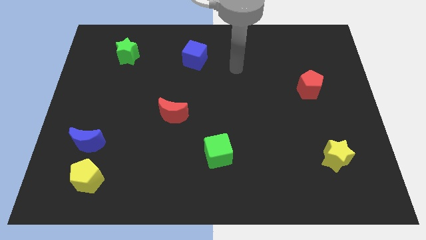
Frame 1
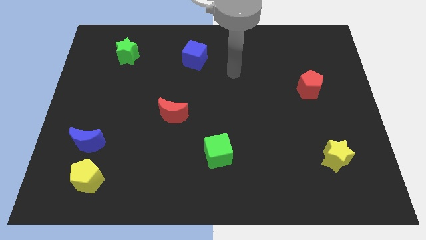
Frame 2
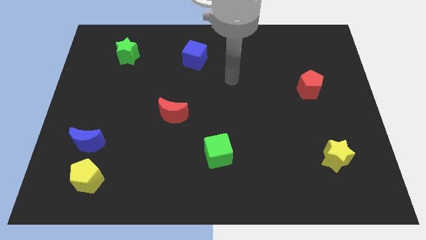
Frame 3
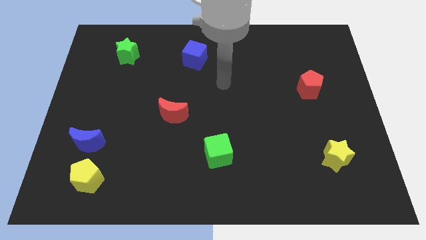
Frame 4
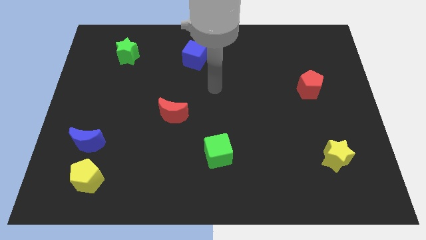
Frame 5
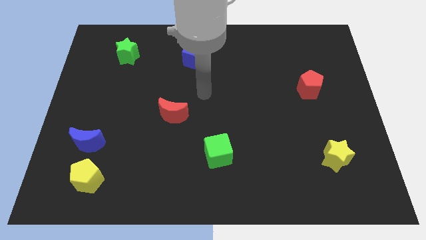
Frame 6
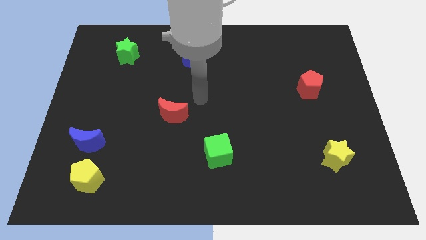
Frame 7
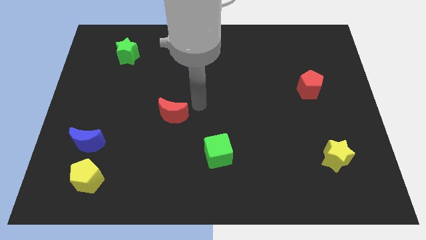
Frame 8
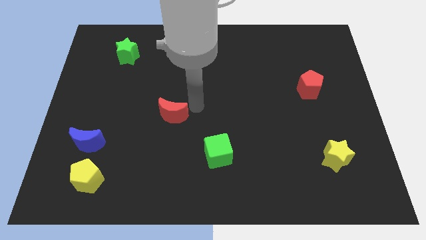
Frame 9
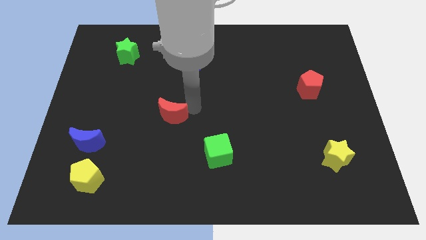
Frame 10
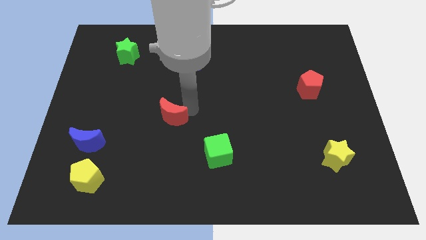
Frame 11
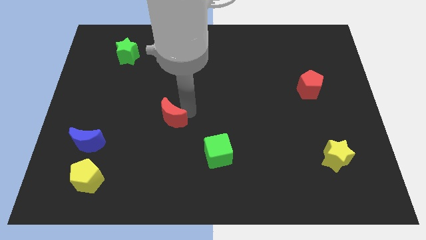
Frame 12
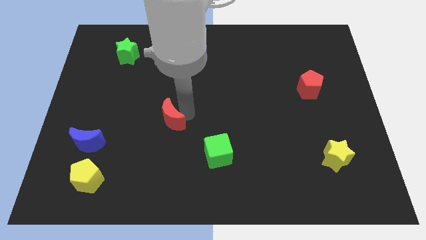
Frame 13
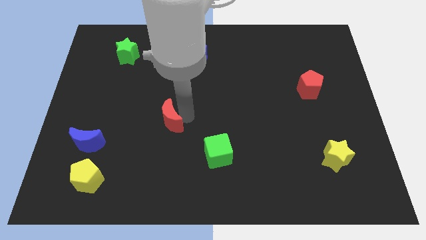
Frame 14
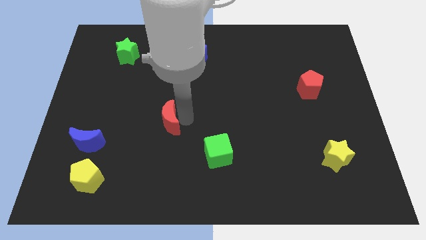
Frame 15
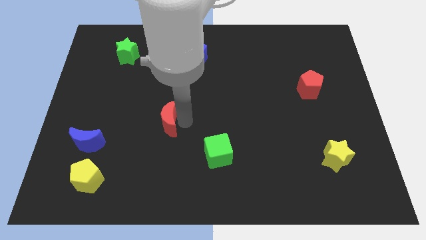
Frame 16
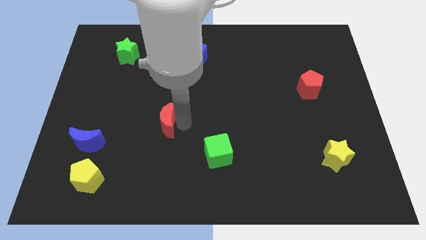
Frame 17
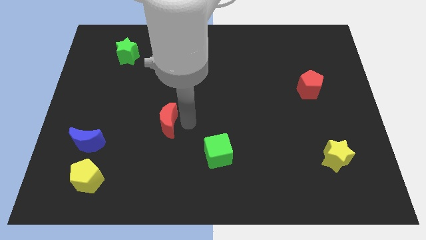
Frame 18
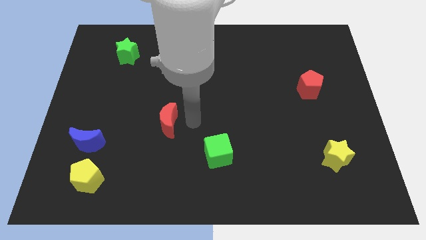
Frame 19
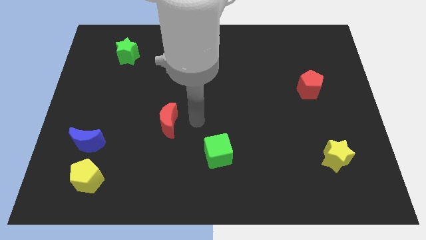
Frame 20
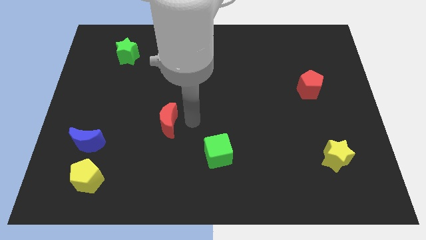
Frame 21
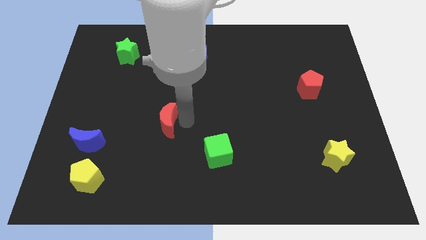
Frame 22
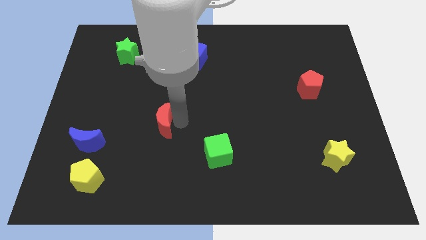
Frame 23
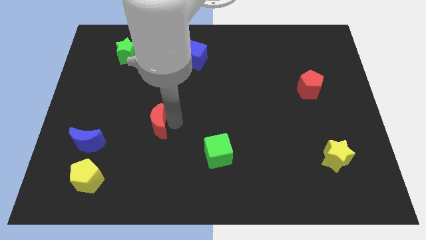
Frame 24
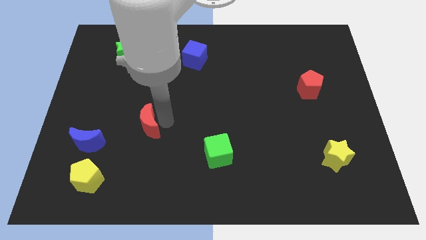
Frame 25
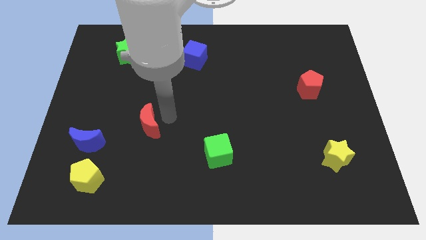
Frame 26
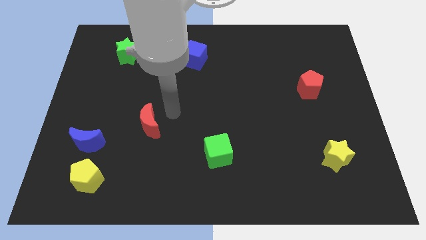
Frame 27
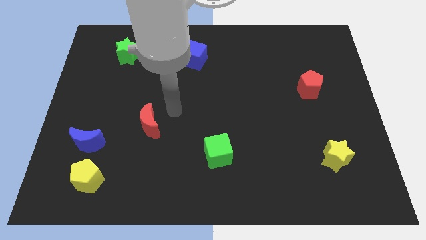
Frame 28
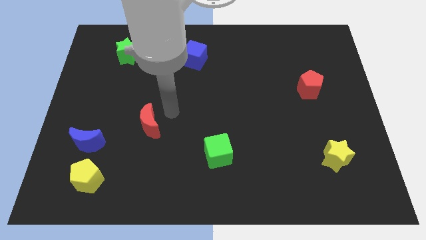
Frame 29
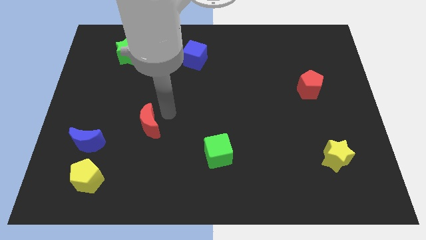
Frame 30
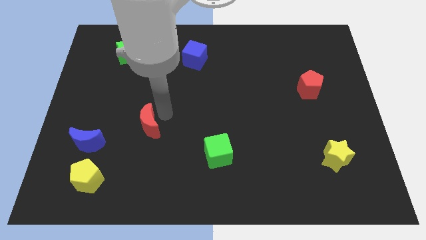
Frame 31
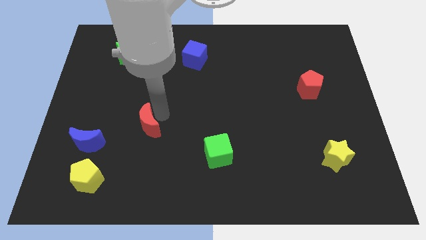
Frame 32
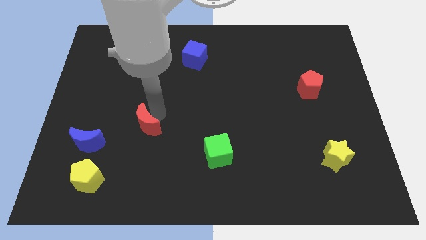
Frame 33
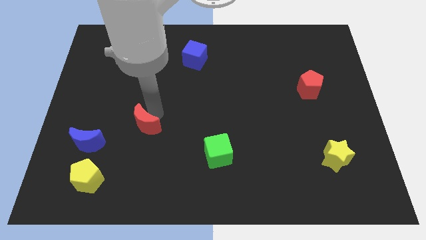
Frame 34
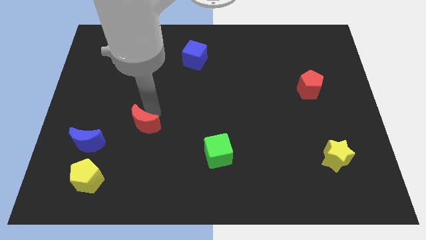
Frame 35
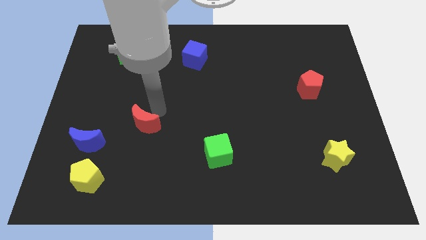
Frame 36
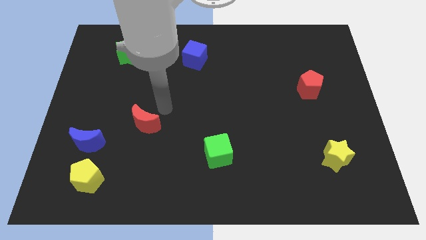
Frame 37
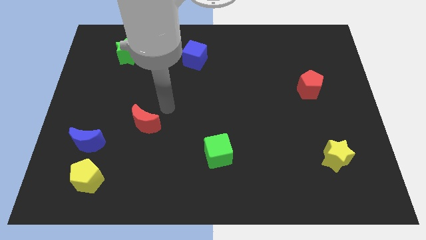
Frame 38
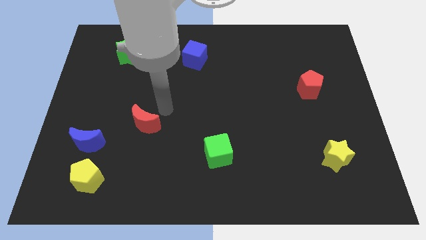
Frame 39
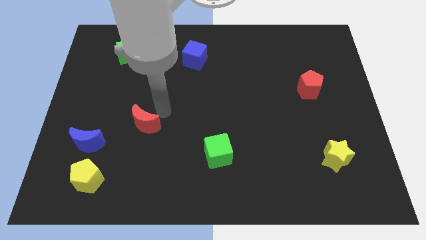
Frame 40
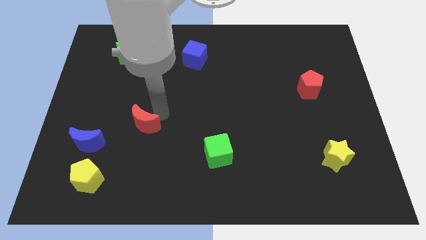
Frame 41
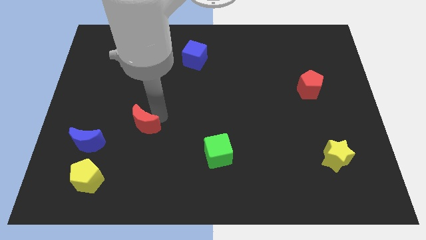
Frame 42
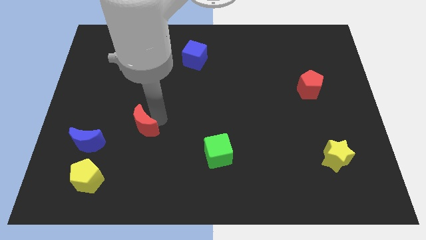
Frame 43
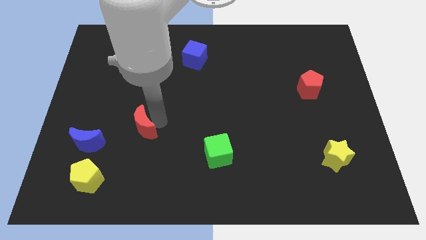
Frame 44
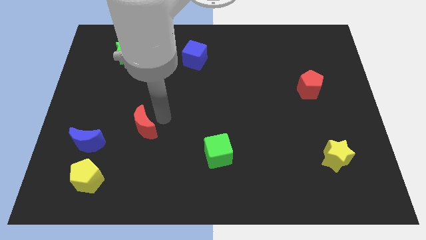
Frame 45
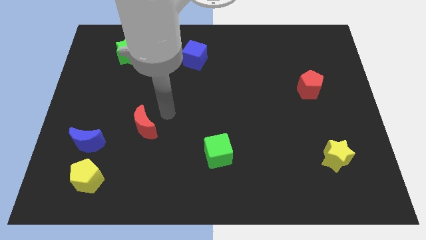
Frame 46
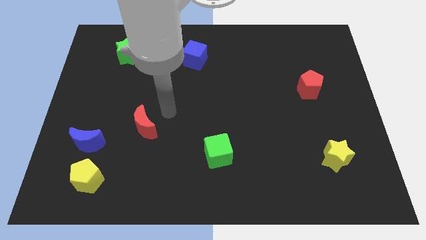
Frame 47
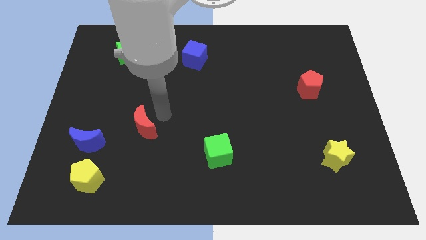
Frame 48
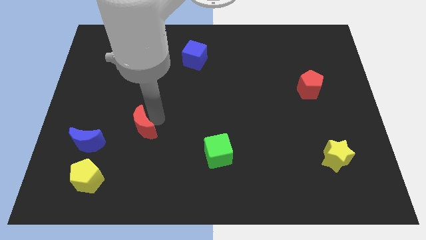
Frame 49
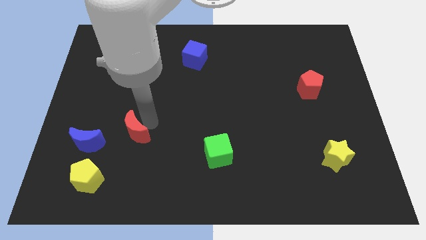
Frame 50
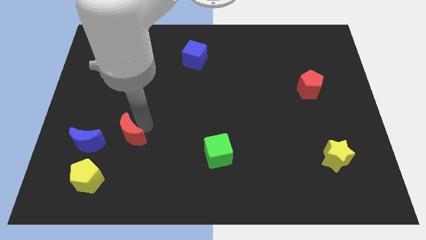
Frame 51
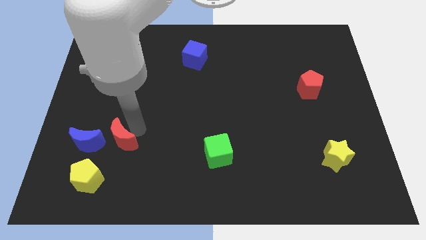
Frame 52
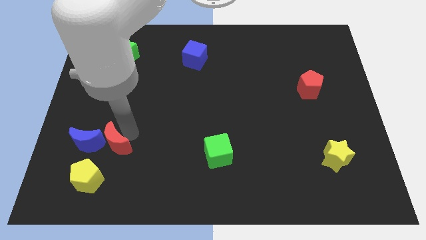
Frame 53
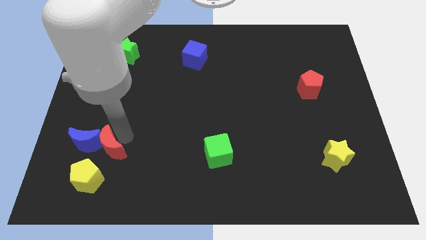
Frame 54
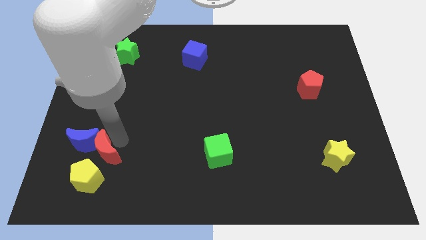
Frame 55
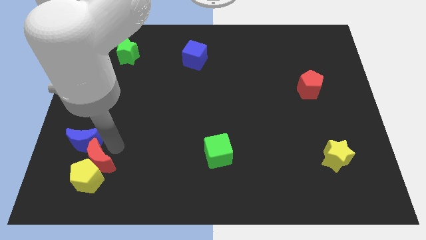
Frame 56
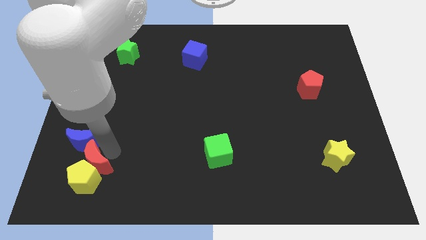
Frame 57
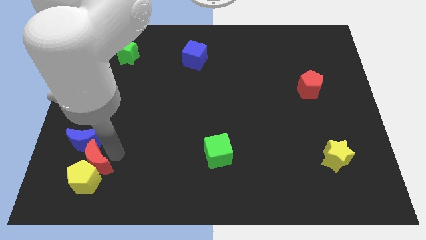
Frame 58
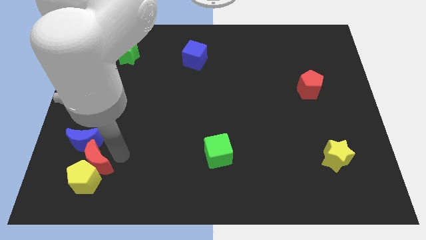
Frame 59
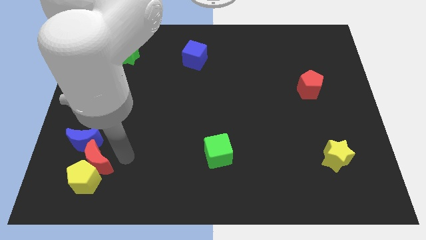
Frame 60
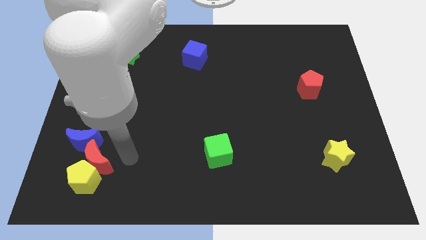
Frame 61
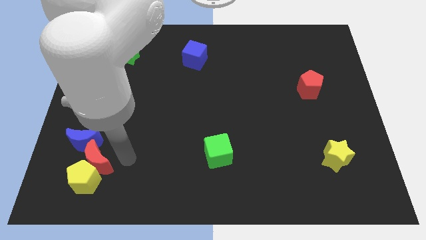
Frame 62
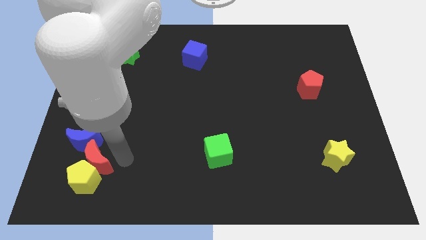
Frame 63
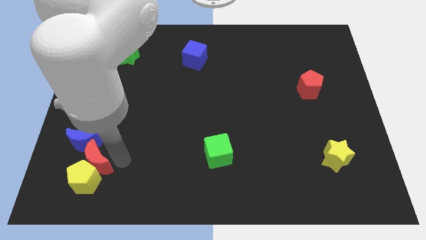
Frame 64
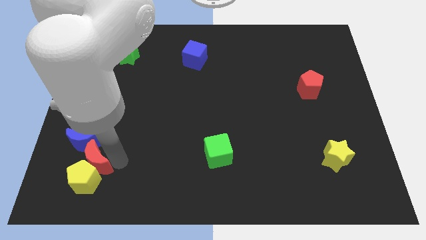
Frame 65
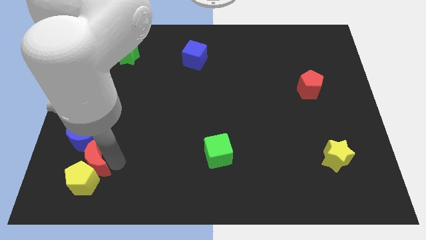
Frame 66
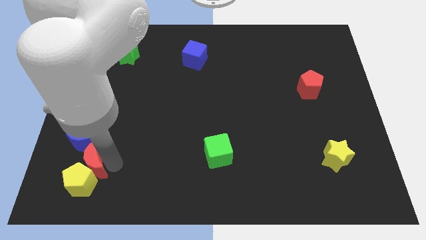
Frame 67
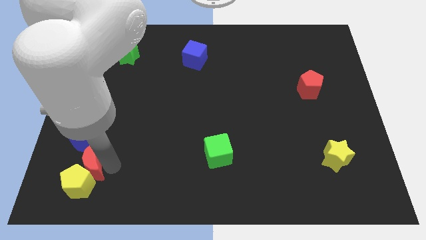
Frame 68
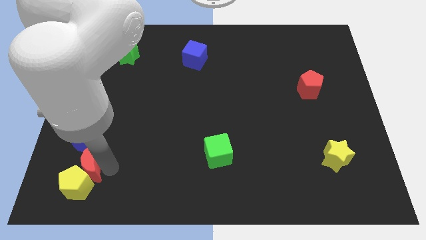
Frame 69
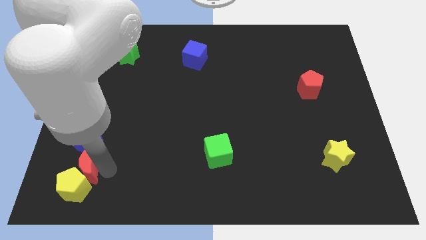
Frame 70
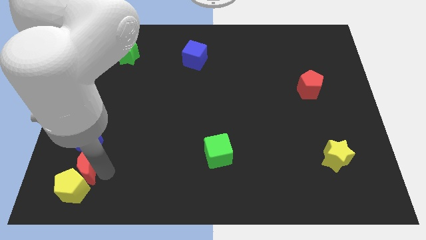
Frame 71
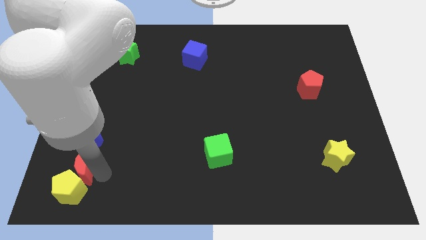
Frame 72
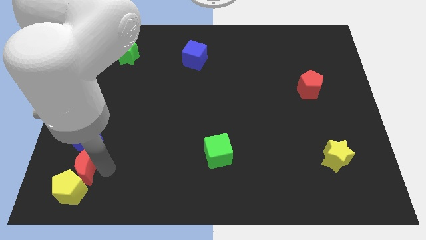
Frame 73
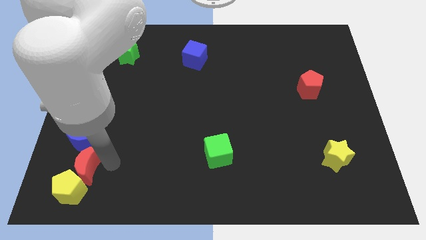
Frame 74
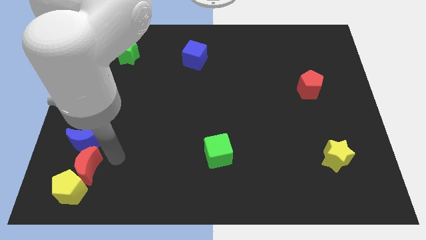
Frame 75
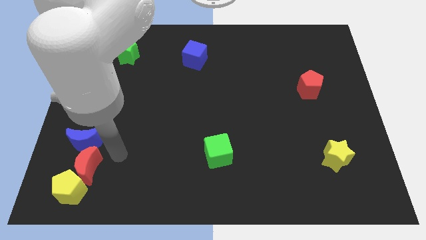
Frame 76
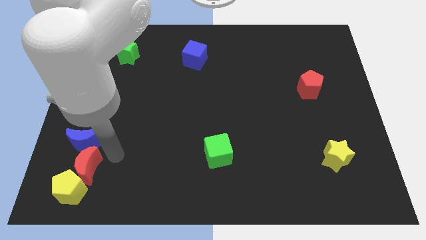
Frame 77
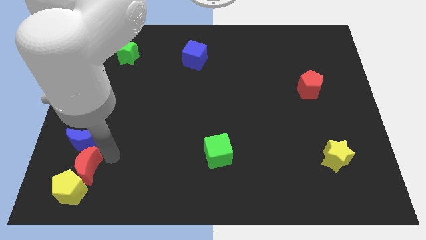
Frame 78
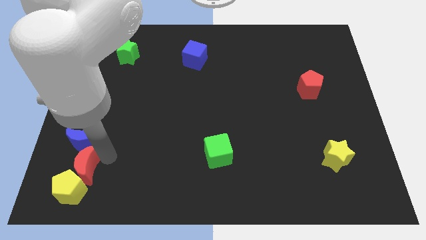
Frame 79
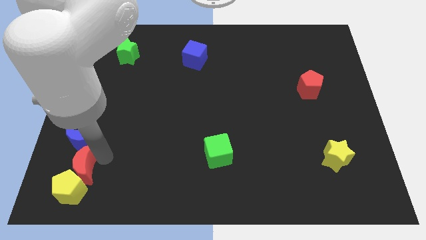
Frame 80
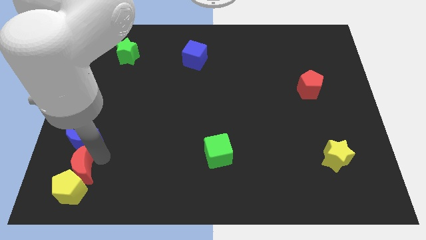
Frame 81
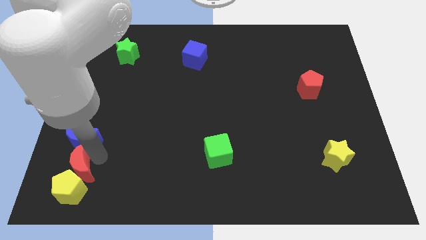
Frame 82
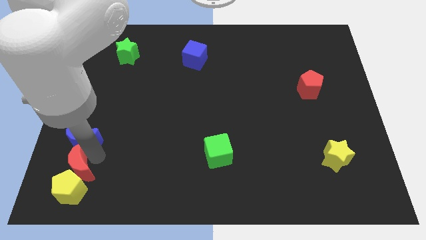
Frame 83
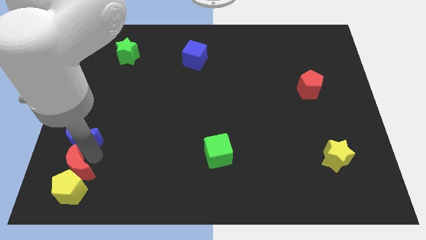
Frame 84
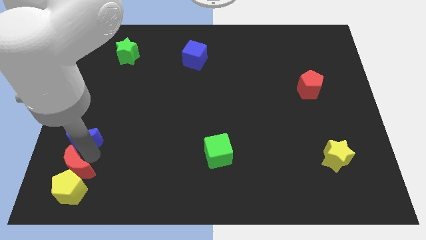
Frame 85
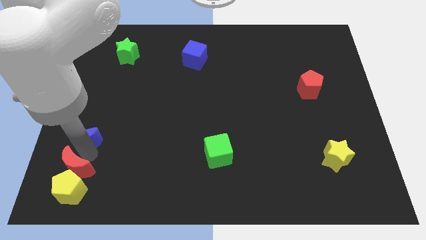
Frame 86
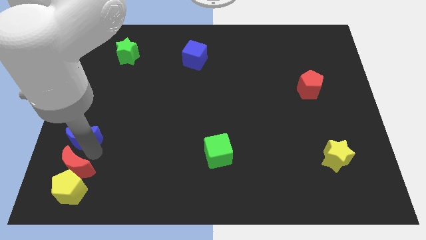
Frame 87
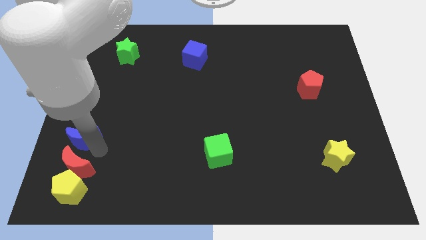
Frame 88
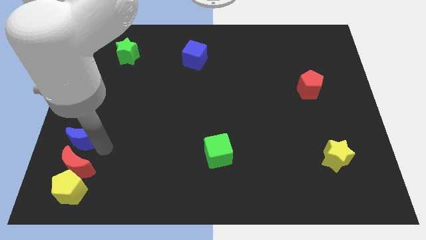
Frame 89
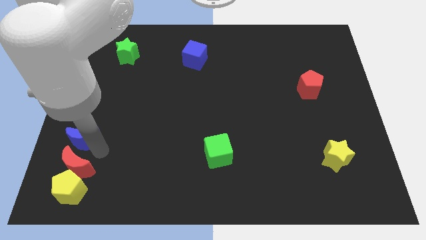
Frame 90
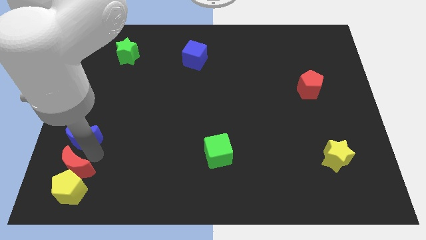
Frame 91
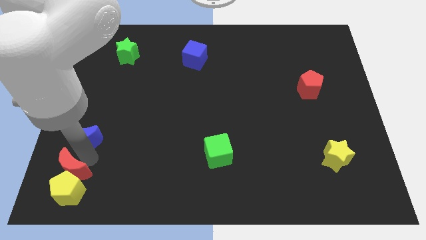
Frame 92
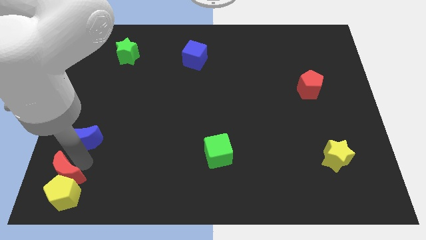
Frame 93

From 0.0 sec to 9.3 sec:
put the red moon to the bottom left corner
